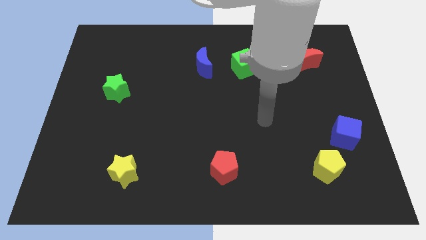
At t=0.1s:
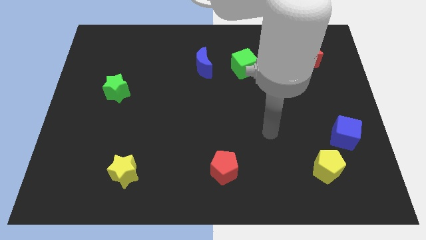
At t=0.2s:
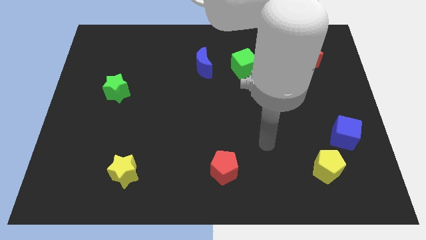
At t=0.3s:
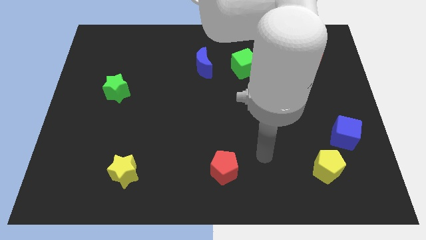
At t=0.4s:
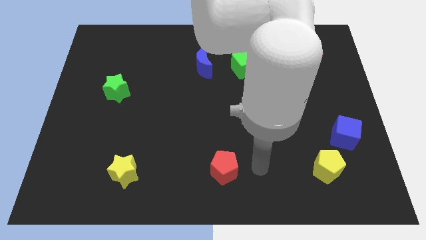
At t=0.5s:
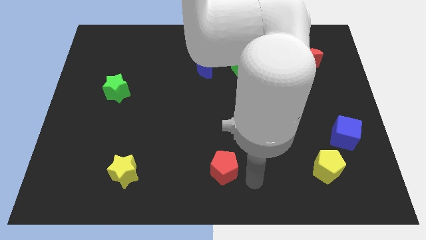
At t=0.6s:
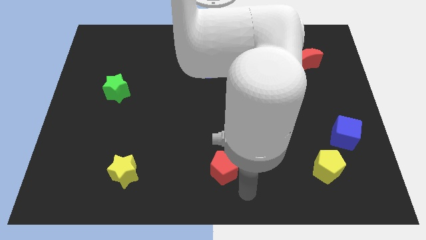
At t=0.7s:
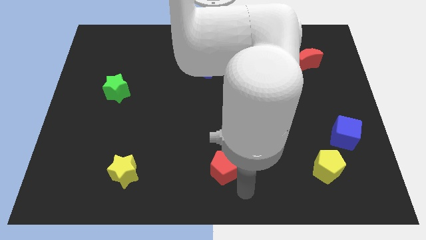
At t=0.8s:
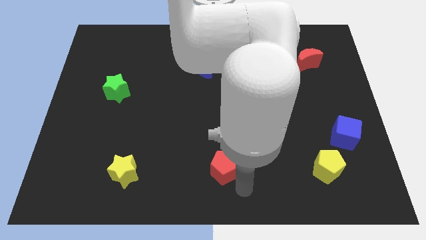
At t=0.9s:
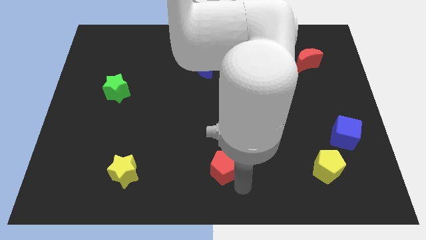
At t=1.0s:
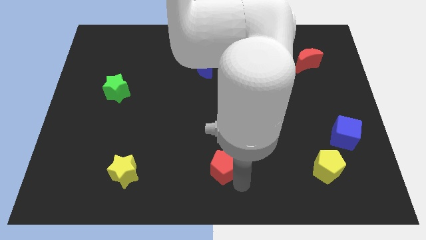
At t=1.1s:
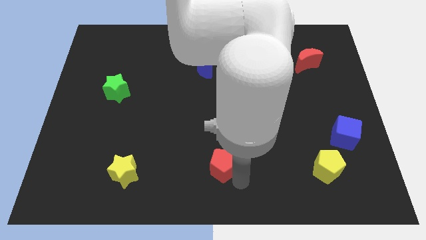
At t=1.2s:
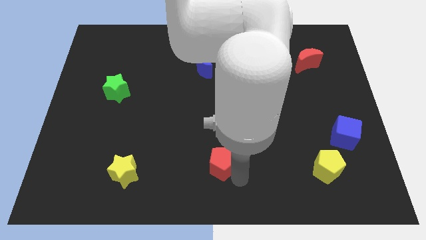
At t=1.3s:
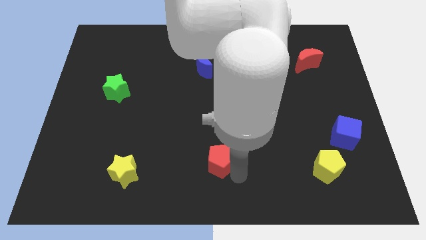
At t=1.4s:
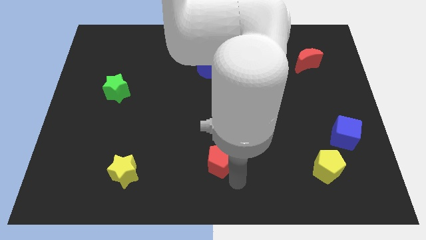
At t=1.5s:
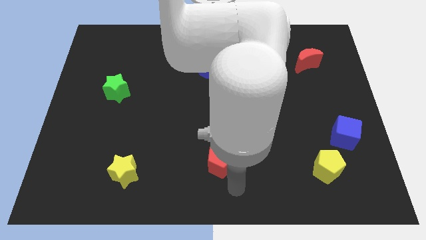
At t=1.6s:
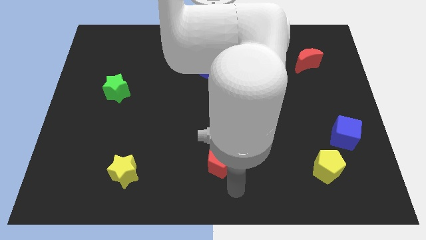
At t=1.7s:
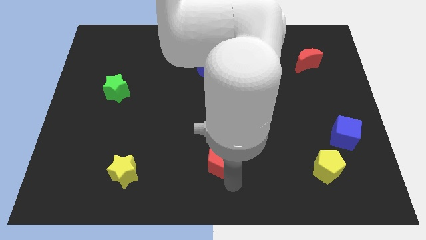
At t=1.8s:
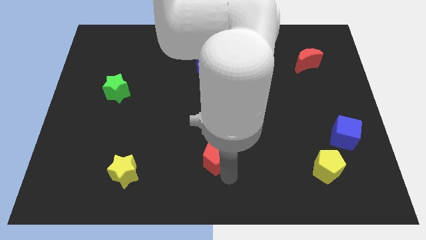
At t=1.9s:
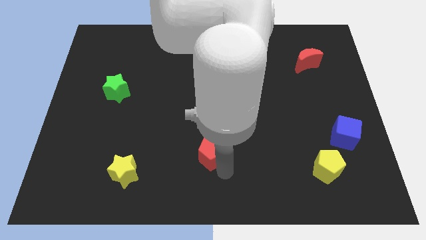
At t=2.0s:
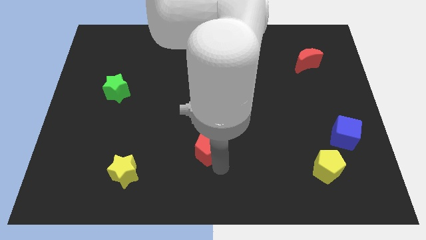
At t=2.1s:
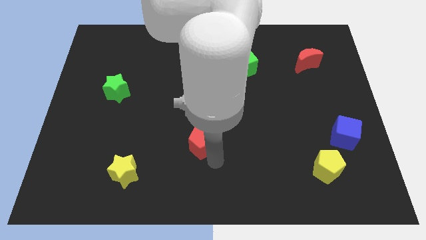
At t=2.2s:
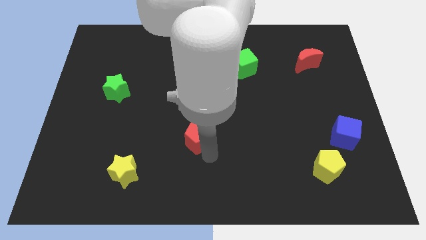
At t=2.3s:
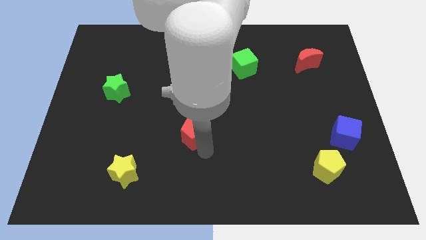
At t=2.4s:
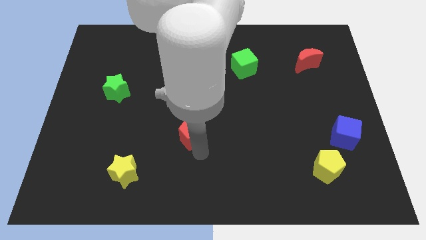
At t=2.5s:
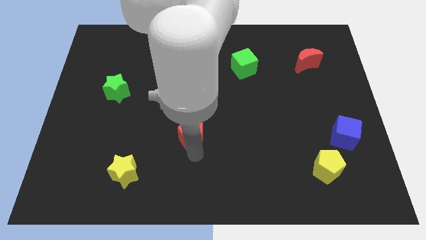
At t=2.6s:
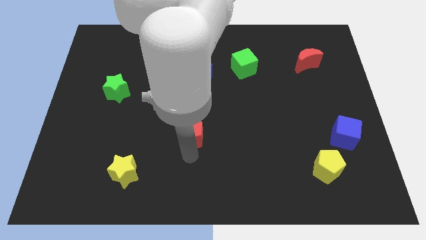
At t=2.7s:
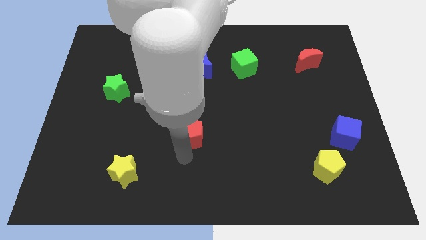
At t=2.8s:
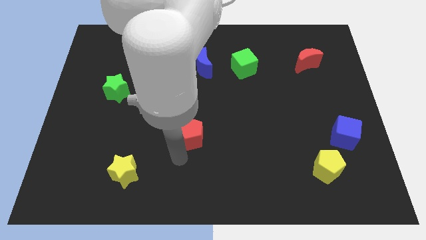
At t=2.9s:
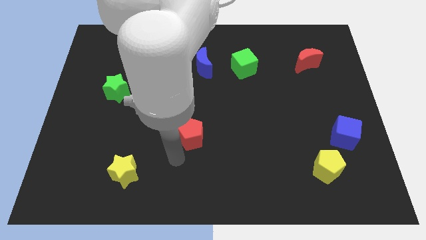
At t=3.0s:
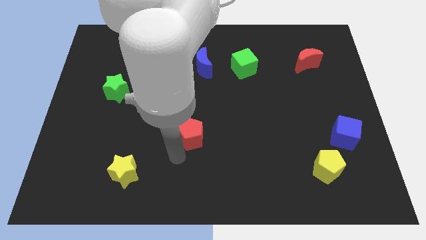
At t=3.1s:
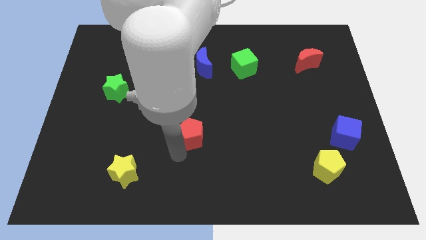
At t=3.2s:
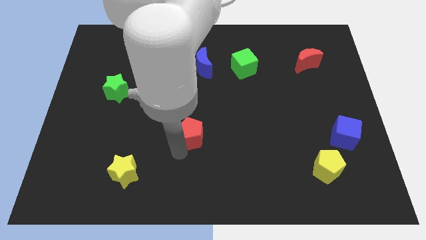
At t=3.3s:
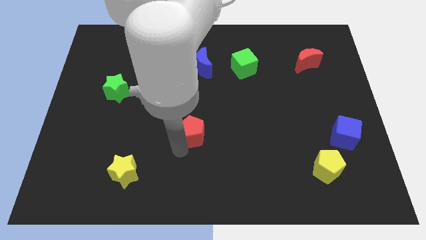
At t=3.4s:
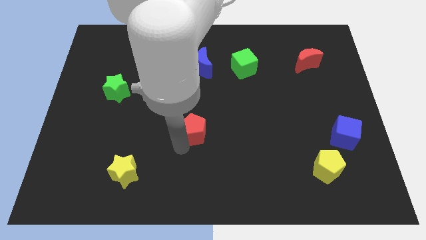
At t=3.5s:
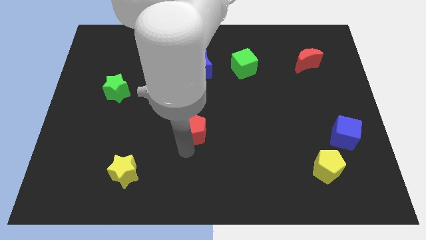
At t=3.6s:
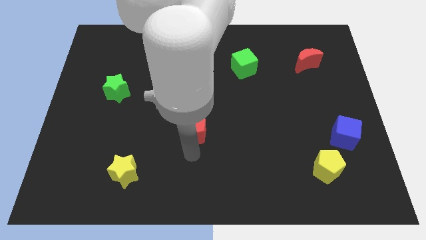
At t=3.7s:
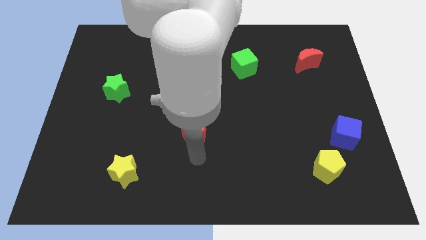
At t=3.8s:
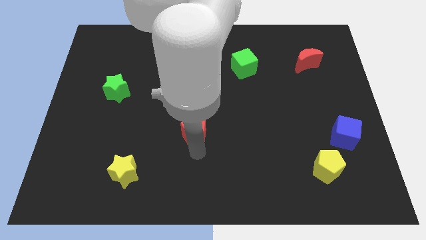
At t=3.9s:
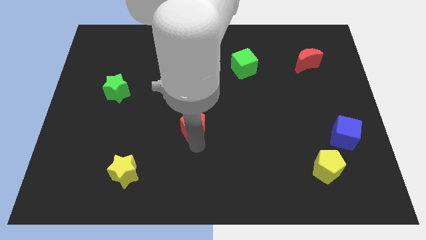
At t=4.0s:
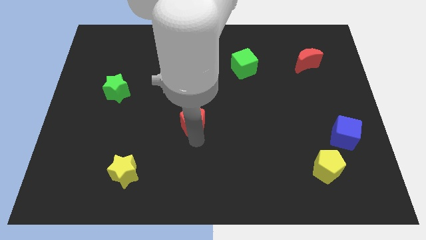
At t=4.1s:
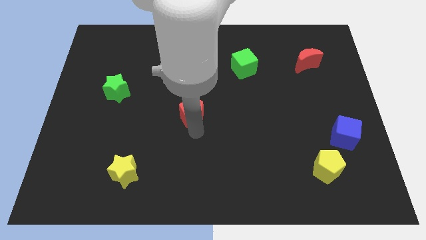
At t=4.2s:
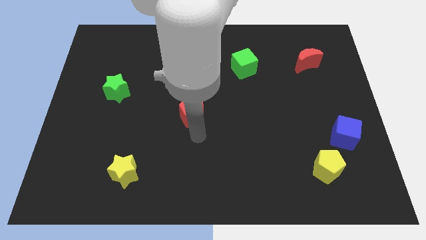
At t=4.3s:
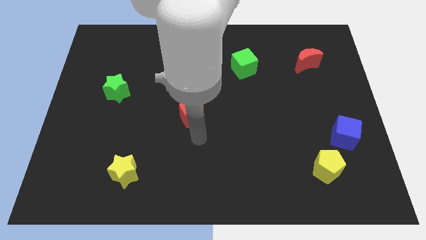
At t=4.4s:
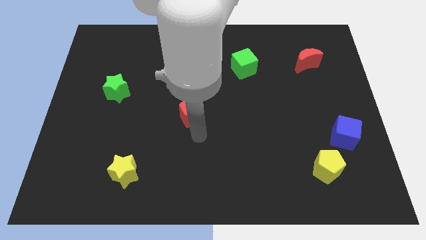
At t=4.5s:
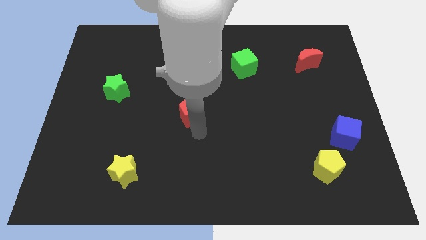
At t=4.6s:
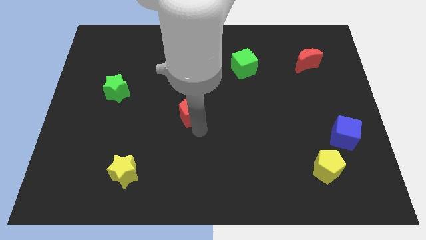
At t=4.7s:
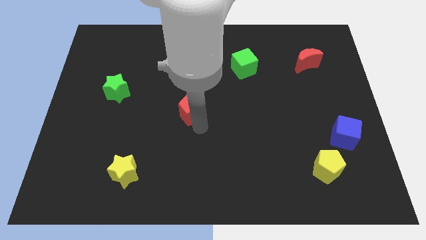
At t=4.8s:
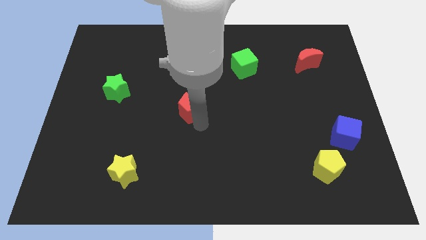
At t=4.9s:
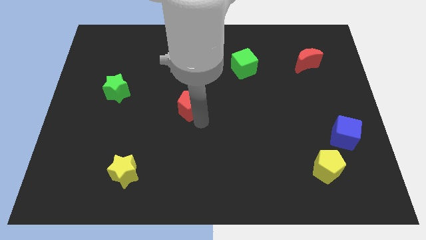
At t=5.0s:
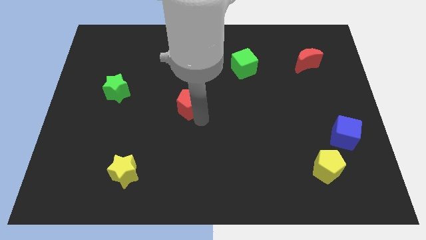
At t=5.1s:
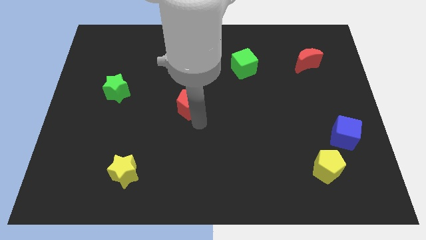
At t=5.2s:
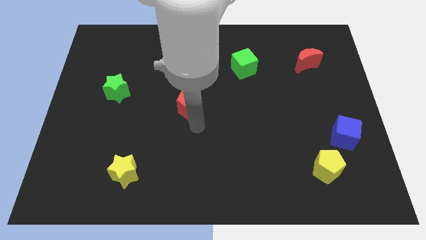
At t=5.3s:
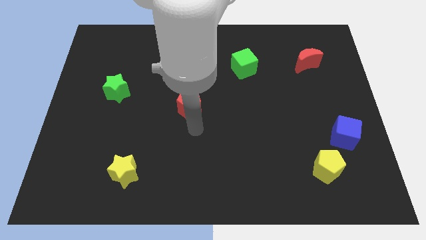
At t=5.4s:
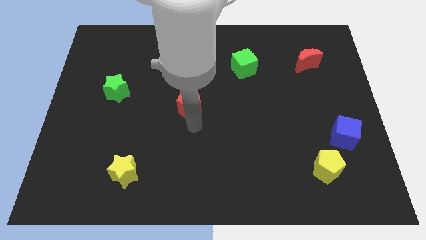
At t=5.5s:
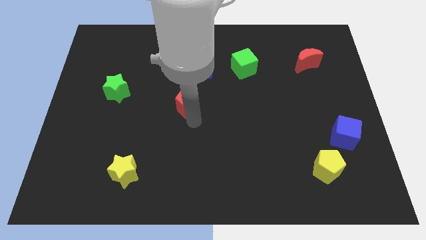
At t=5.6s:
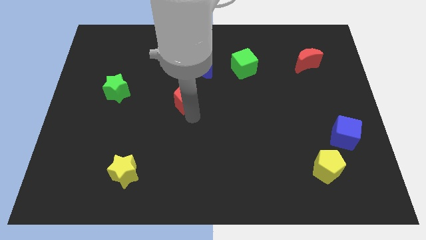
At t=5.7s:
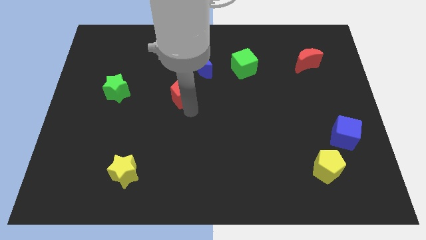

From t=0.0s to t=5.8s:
push the red pentagon diagonally down and to the left of the blue moon

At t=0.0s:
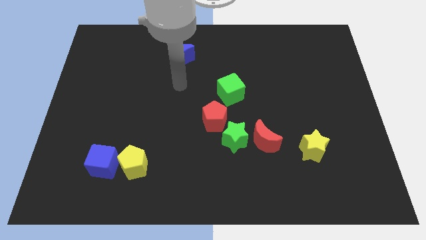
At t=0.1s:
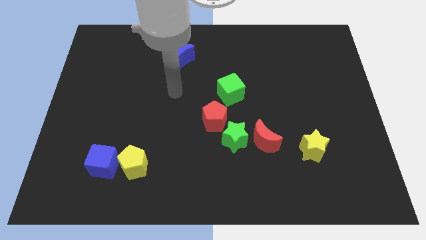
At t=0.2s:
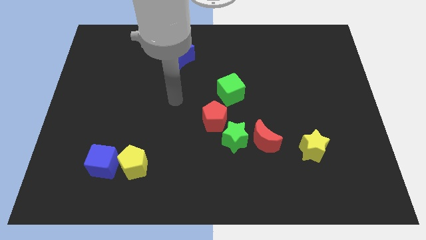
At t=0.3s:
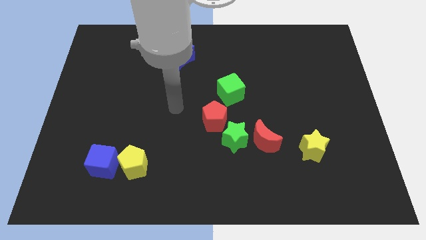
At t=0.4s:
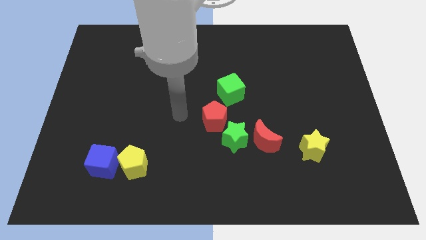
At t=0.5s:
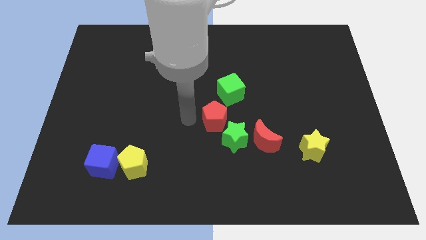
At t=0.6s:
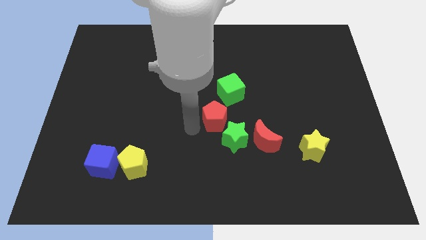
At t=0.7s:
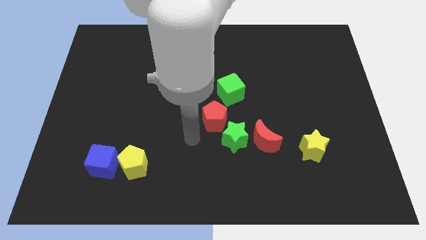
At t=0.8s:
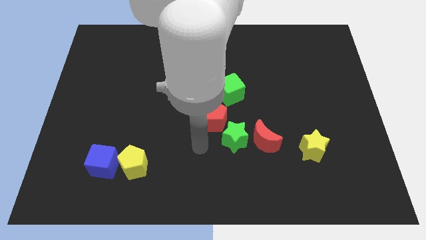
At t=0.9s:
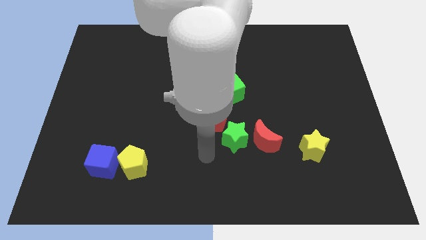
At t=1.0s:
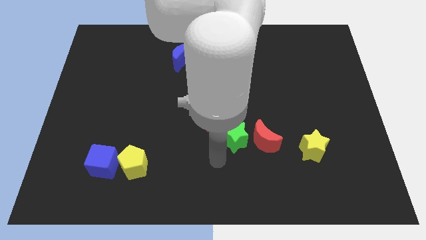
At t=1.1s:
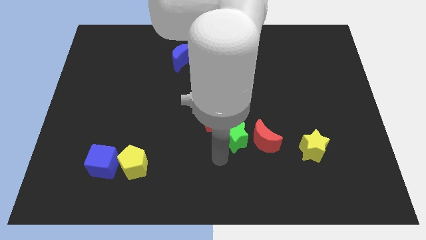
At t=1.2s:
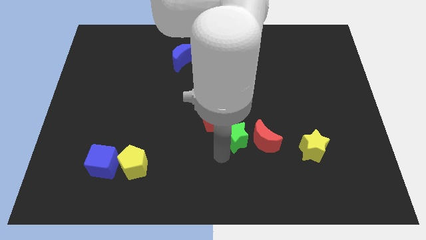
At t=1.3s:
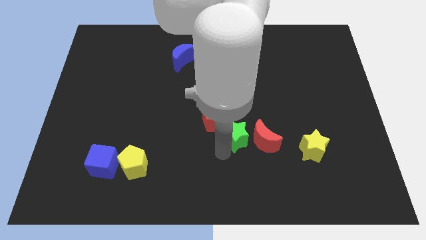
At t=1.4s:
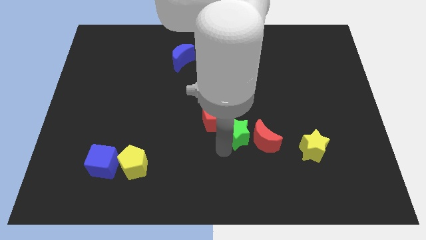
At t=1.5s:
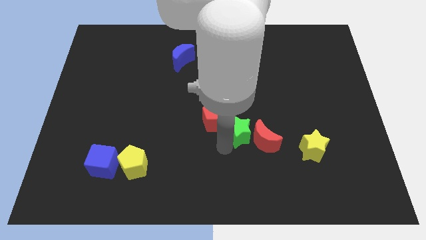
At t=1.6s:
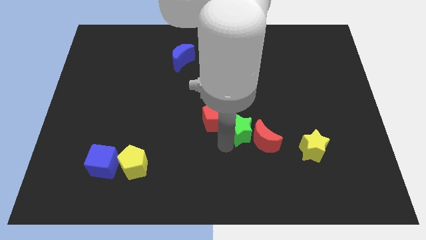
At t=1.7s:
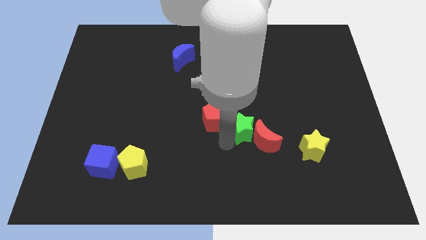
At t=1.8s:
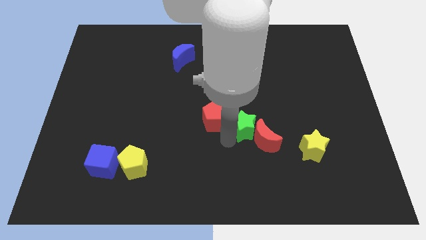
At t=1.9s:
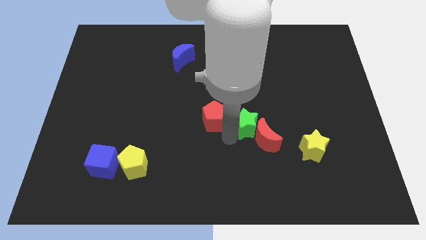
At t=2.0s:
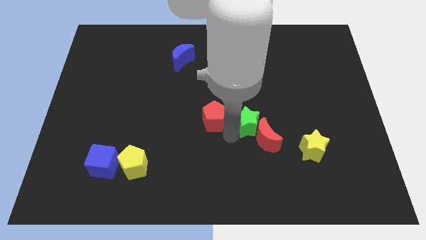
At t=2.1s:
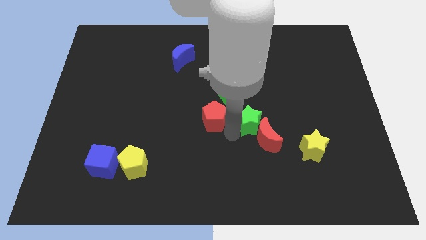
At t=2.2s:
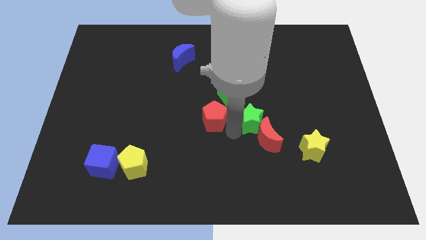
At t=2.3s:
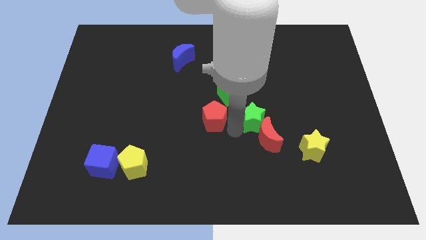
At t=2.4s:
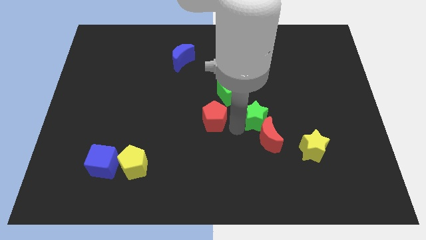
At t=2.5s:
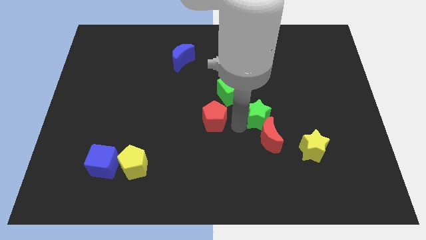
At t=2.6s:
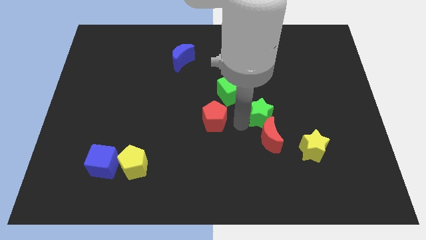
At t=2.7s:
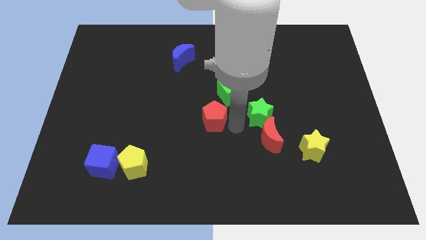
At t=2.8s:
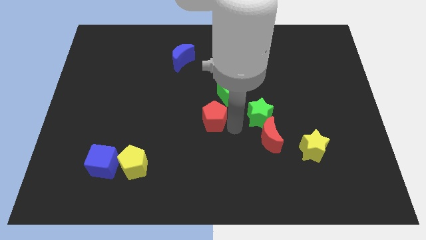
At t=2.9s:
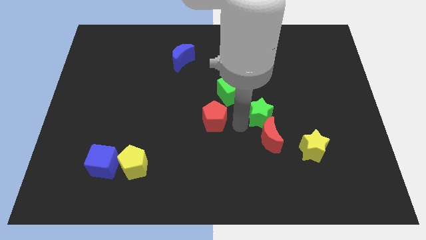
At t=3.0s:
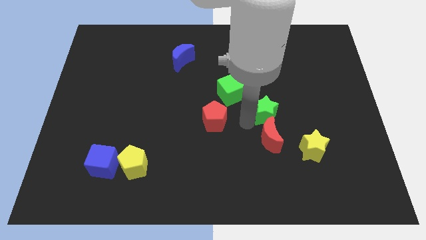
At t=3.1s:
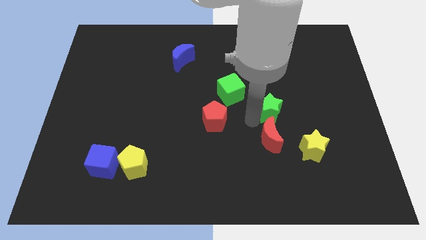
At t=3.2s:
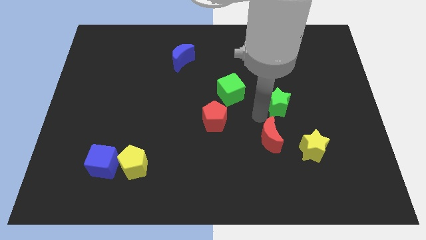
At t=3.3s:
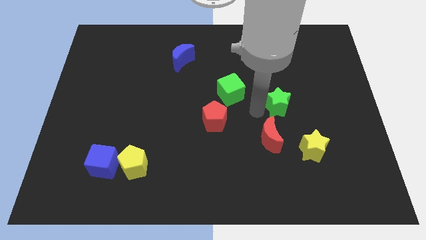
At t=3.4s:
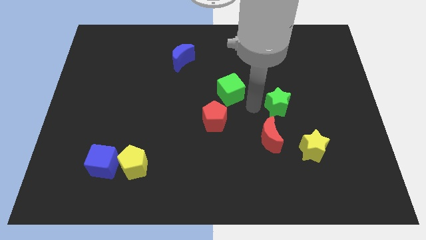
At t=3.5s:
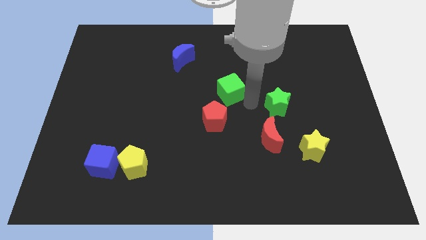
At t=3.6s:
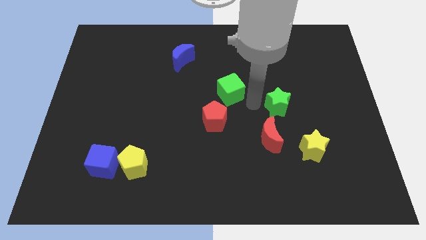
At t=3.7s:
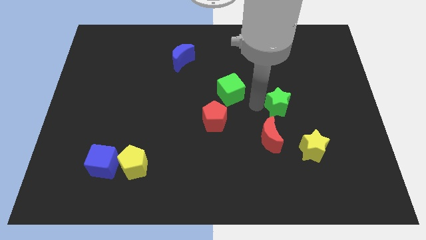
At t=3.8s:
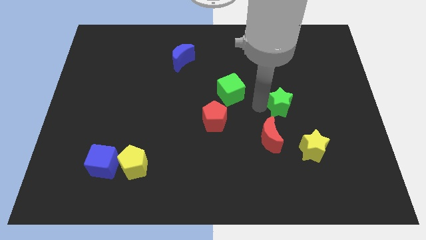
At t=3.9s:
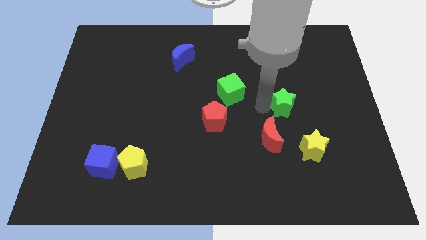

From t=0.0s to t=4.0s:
push the green star above the yellow star
